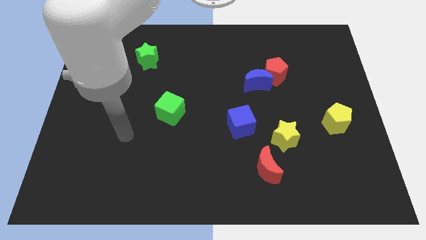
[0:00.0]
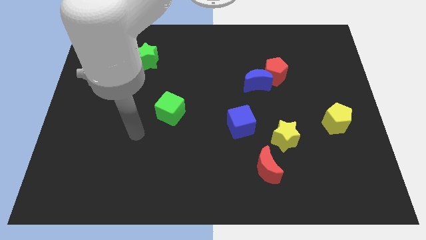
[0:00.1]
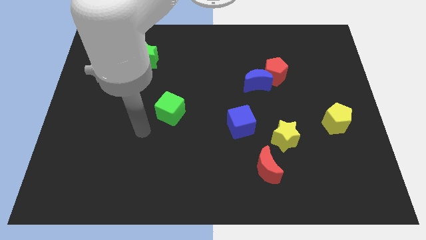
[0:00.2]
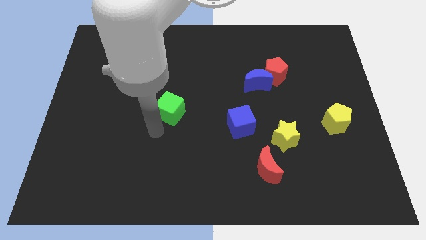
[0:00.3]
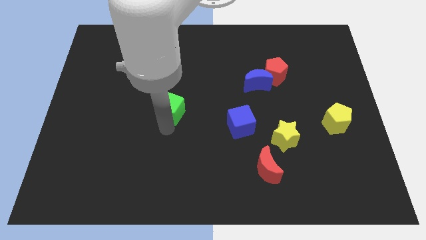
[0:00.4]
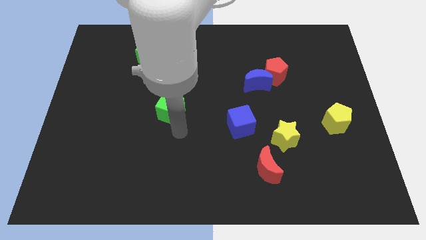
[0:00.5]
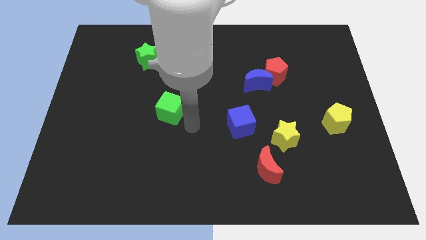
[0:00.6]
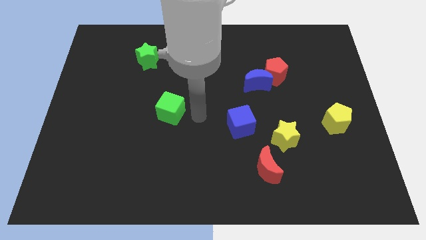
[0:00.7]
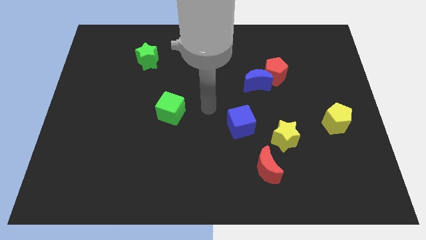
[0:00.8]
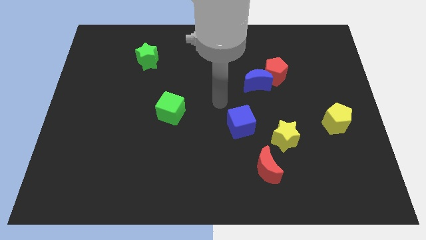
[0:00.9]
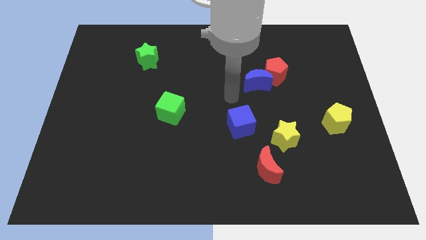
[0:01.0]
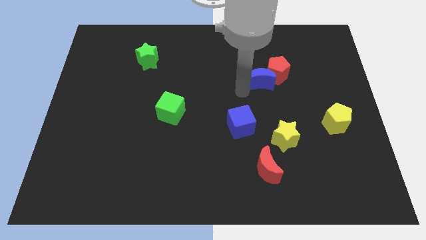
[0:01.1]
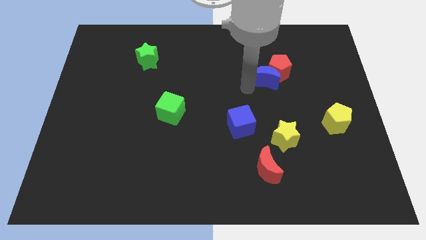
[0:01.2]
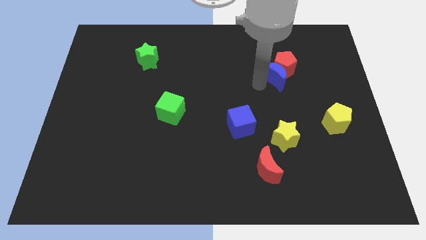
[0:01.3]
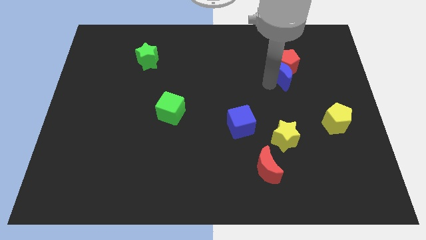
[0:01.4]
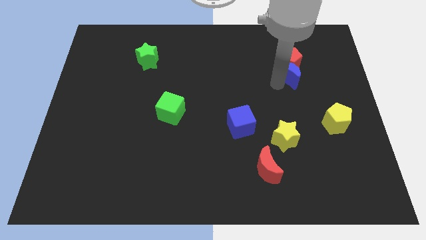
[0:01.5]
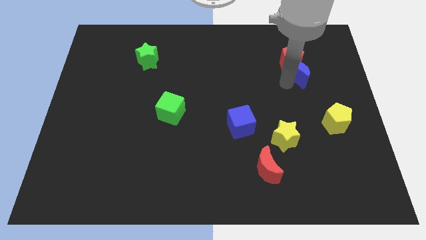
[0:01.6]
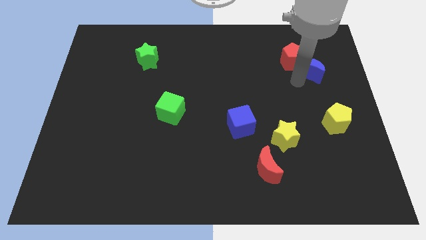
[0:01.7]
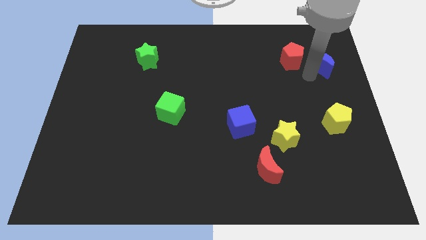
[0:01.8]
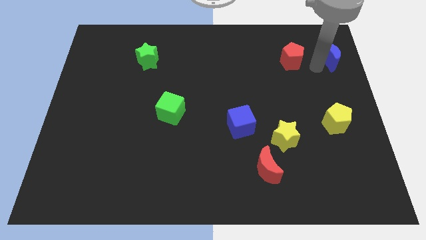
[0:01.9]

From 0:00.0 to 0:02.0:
move the red pentagon away from the blue moon

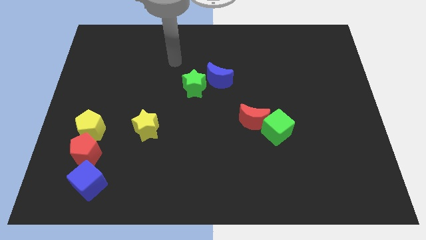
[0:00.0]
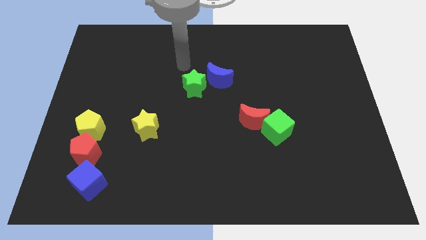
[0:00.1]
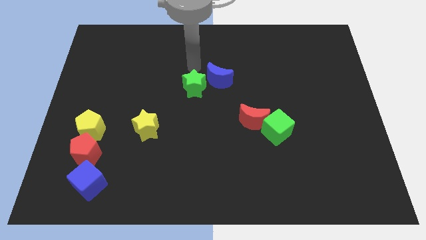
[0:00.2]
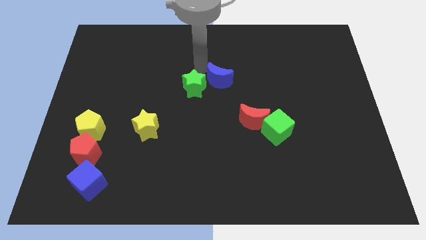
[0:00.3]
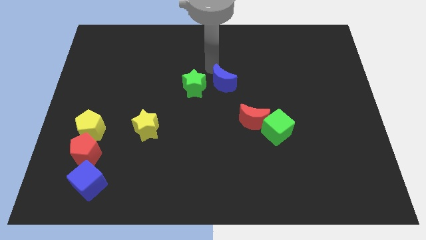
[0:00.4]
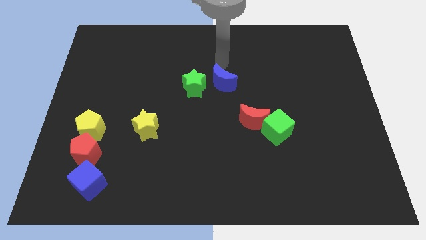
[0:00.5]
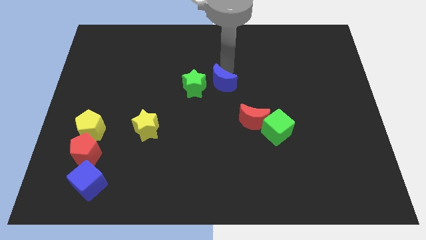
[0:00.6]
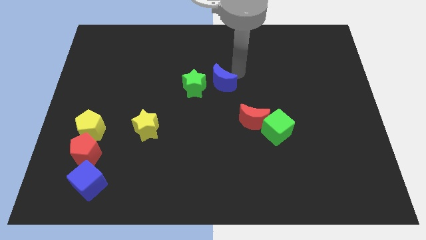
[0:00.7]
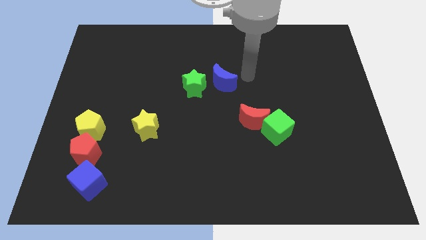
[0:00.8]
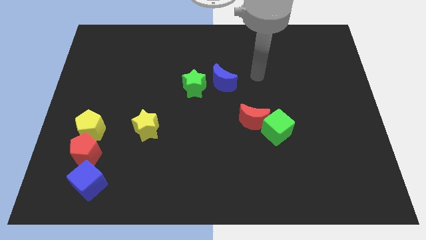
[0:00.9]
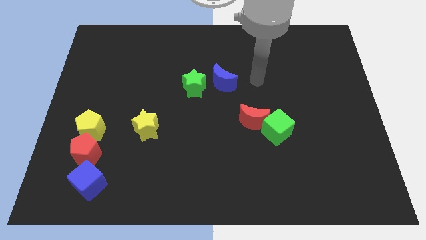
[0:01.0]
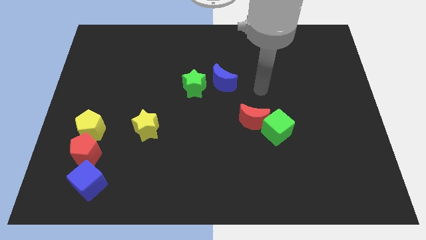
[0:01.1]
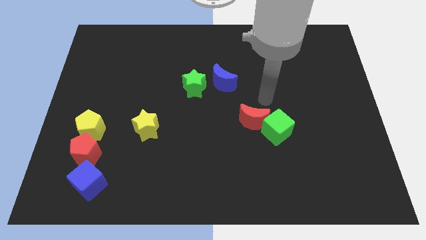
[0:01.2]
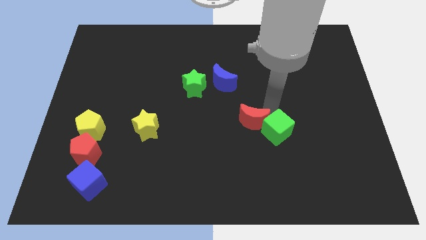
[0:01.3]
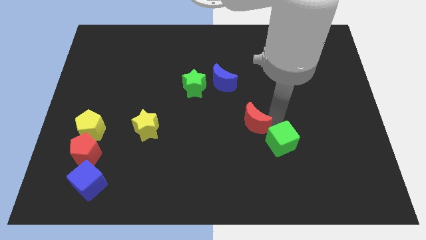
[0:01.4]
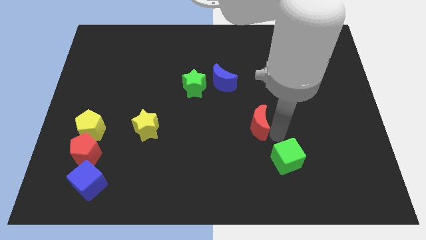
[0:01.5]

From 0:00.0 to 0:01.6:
separate the red moon from the green cube

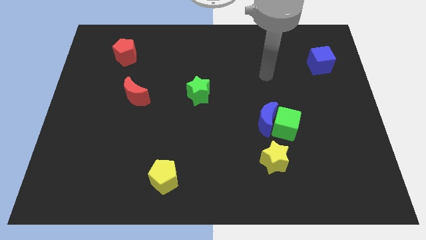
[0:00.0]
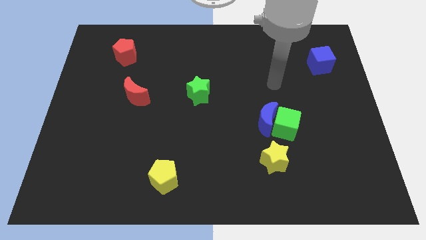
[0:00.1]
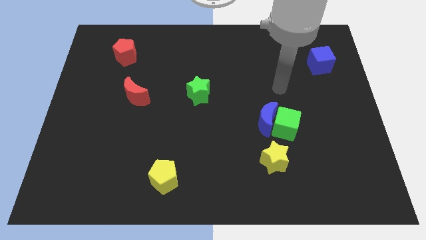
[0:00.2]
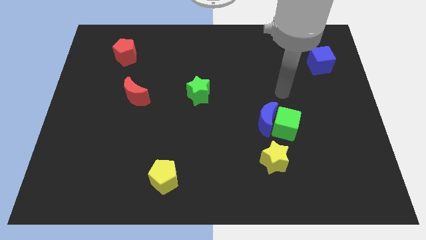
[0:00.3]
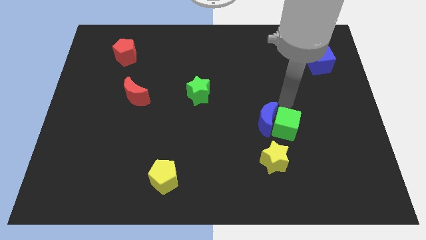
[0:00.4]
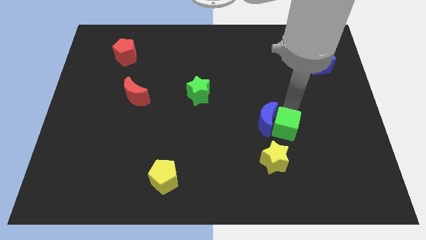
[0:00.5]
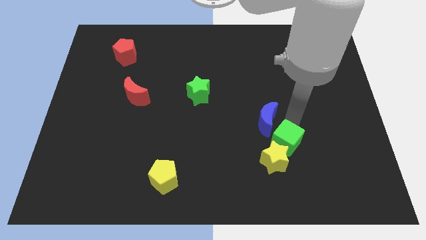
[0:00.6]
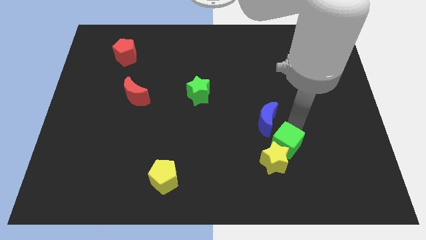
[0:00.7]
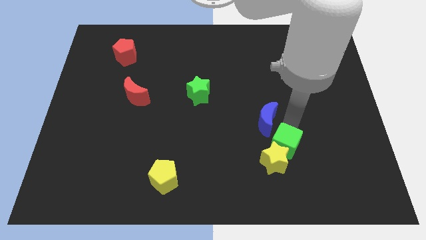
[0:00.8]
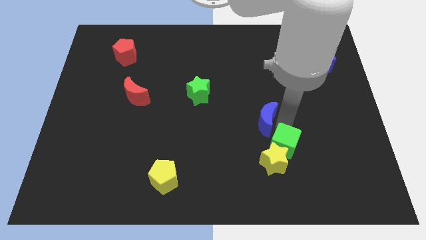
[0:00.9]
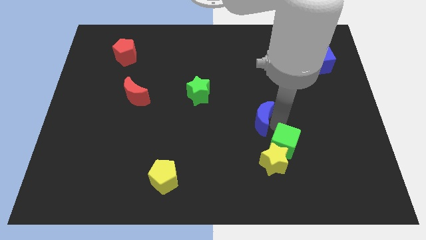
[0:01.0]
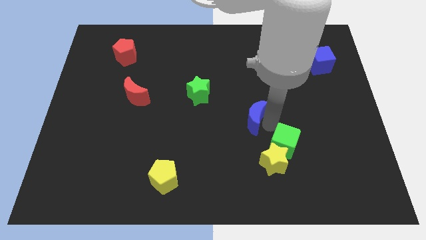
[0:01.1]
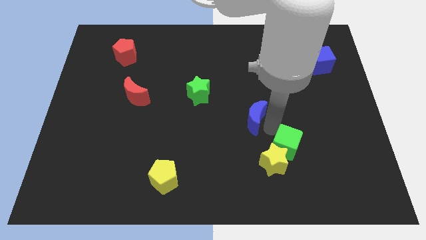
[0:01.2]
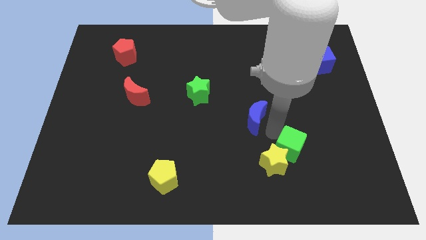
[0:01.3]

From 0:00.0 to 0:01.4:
move the blue moon away from the green cube

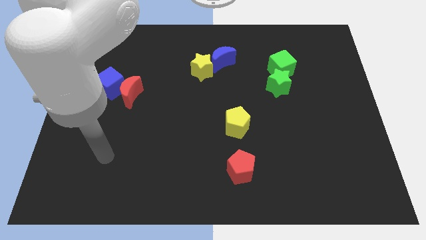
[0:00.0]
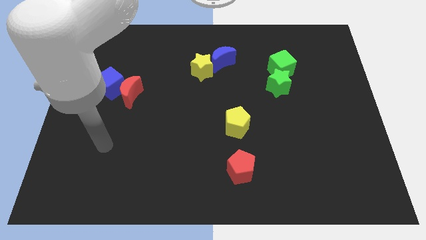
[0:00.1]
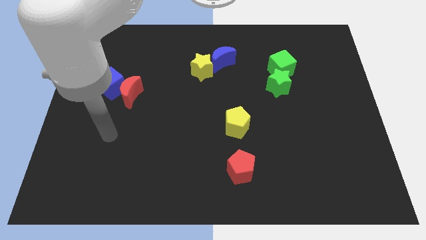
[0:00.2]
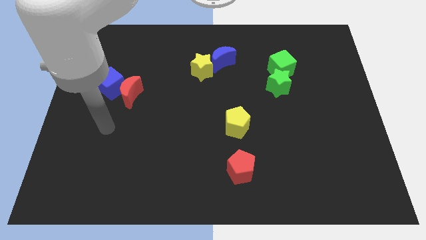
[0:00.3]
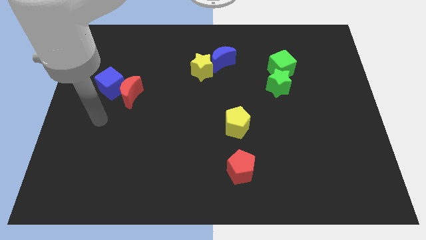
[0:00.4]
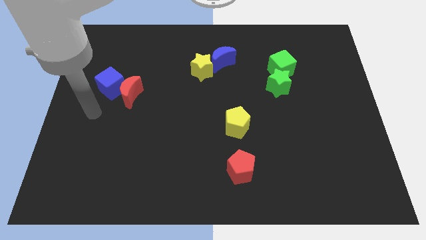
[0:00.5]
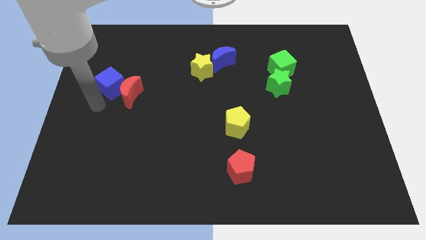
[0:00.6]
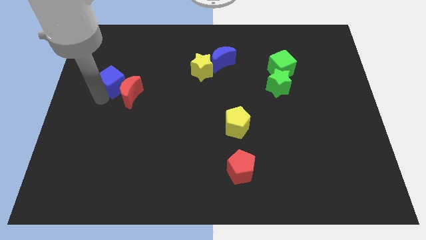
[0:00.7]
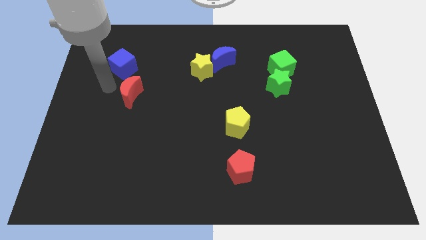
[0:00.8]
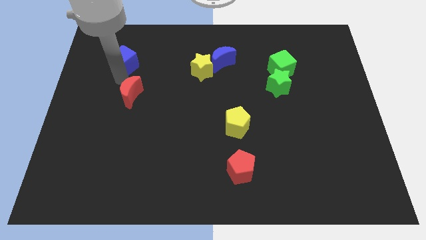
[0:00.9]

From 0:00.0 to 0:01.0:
pull the red moon apart from the blue cube

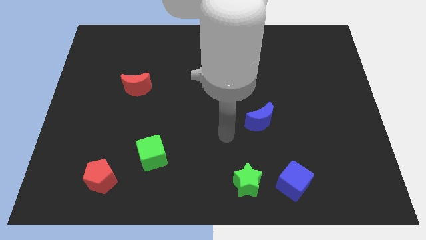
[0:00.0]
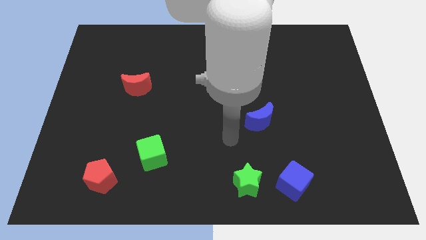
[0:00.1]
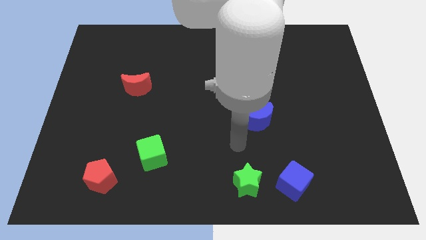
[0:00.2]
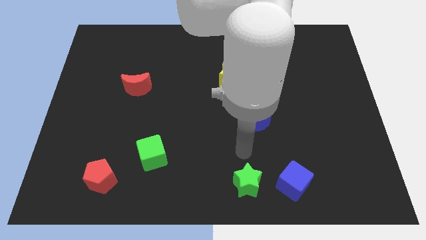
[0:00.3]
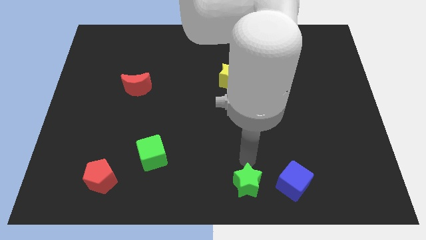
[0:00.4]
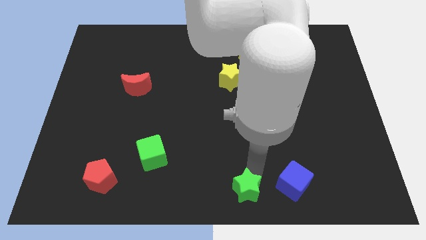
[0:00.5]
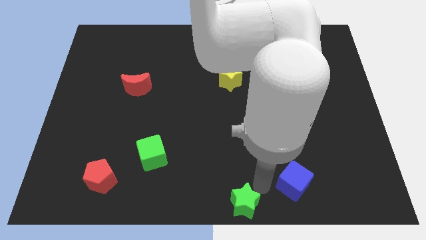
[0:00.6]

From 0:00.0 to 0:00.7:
separate the blue cube from the green star

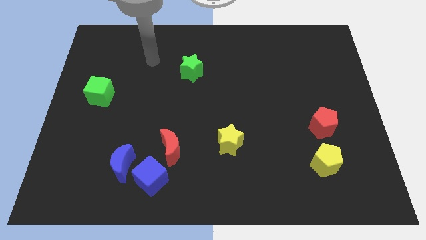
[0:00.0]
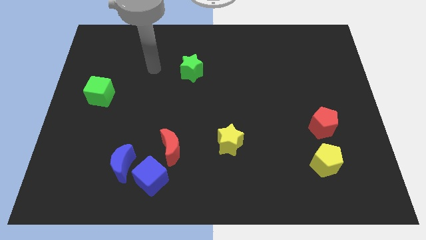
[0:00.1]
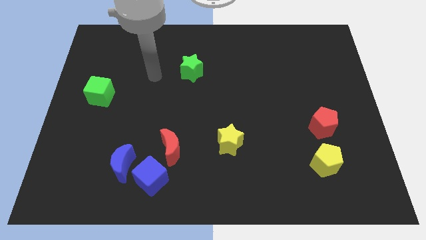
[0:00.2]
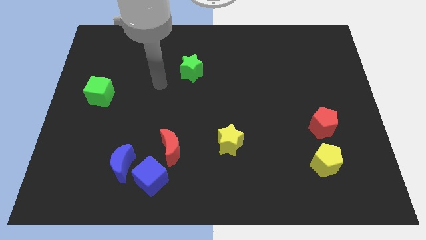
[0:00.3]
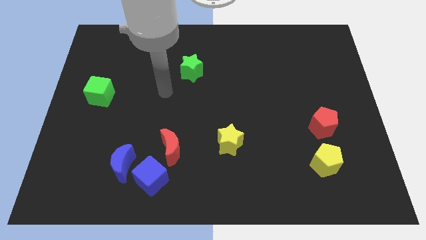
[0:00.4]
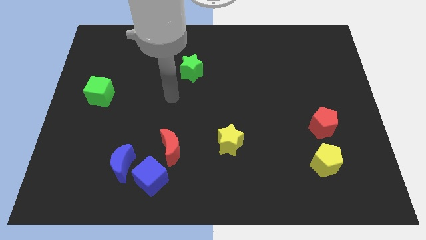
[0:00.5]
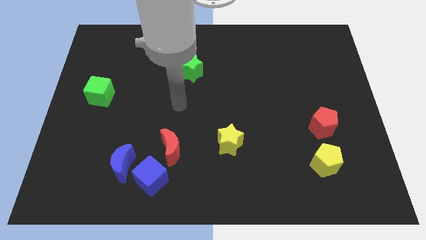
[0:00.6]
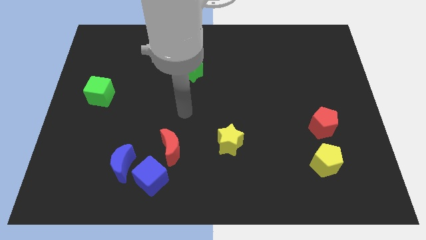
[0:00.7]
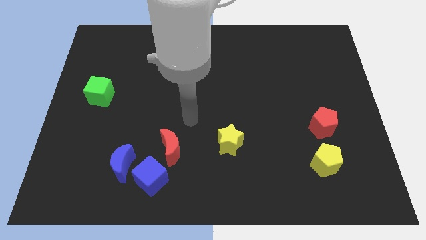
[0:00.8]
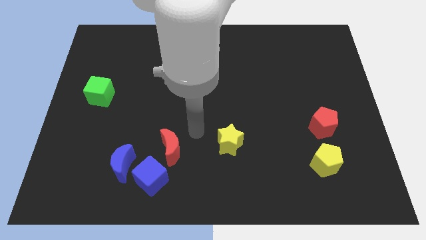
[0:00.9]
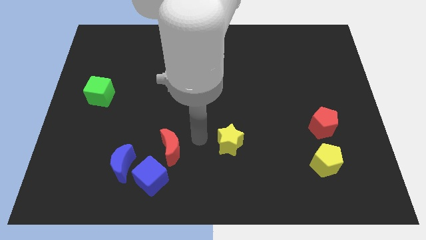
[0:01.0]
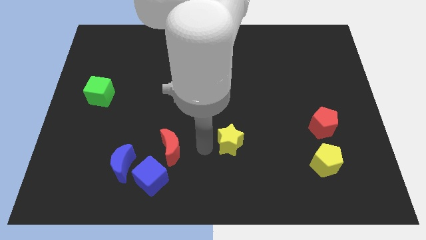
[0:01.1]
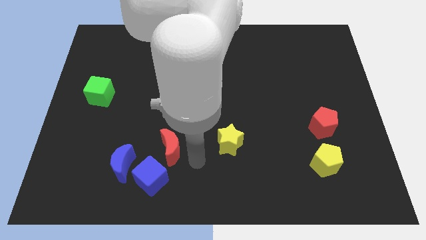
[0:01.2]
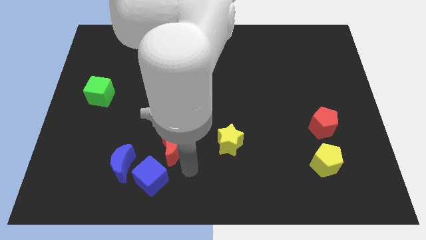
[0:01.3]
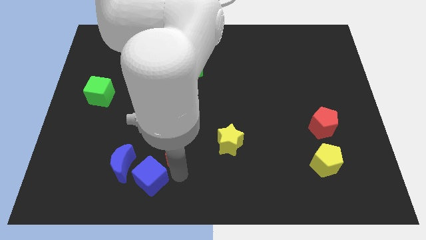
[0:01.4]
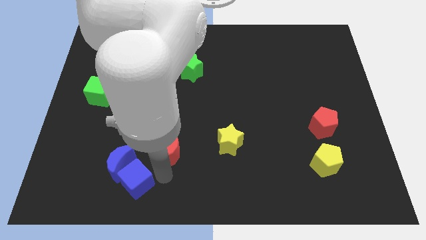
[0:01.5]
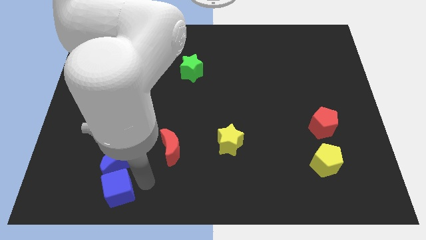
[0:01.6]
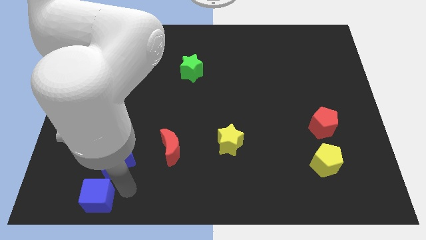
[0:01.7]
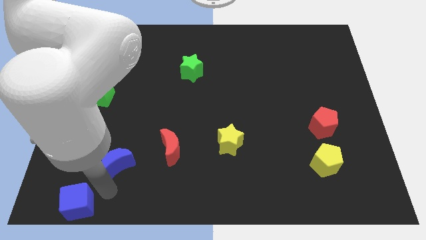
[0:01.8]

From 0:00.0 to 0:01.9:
move the blue moon away from the blue cube

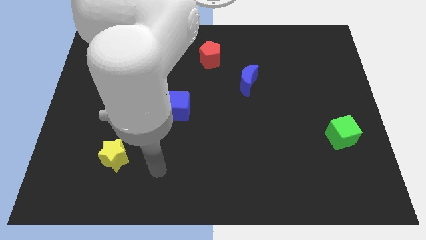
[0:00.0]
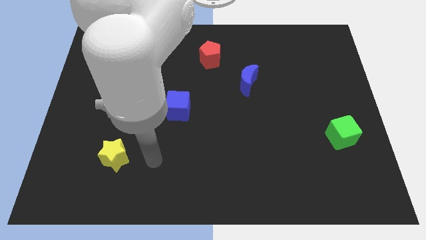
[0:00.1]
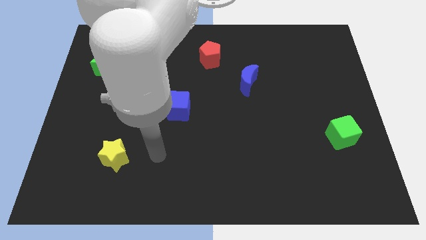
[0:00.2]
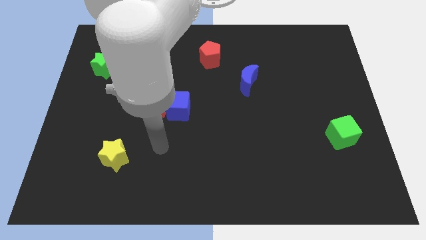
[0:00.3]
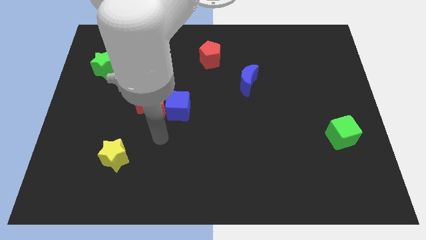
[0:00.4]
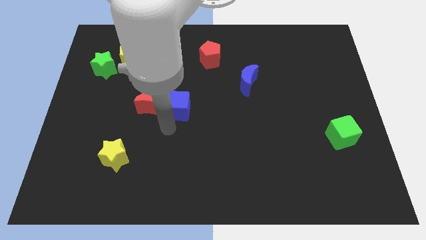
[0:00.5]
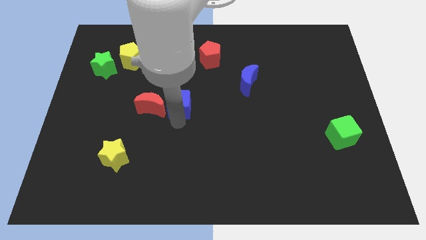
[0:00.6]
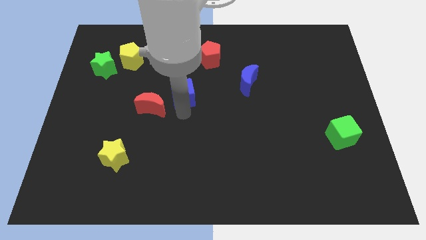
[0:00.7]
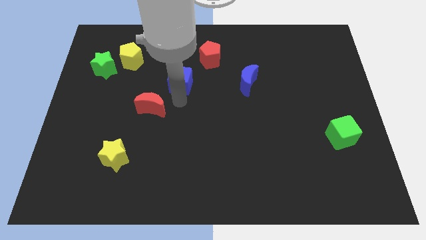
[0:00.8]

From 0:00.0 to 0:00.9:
separate the red moon from the blue cube

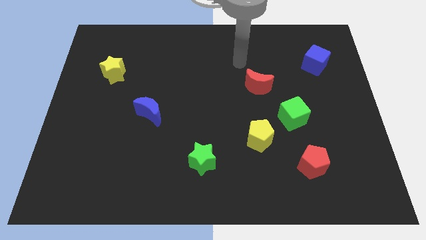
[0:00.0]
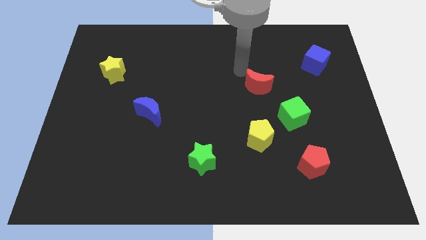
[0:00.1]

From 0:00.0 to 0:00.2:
separate the green cube from the yellow pentagon
